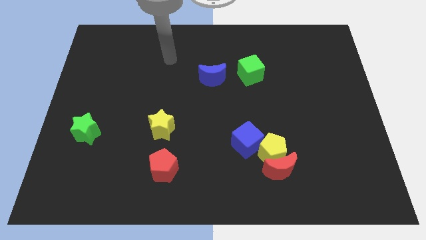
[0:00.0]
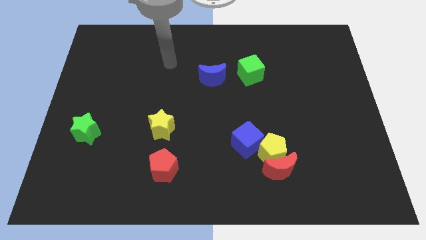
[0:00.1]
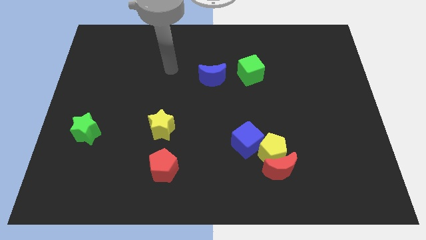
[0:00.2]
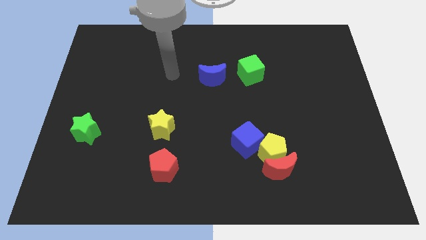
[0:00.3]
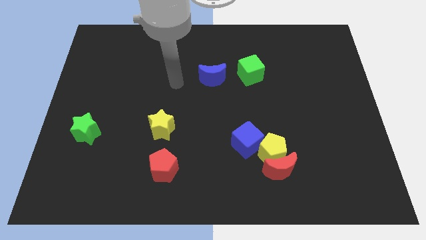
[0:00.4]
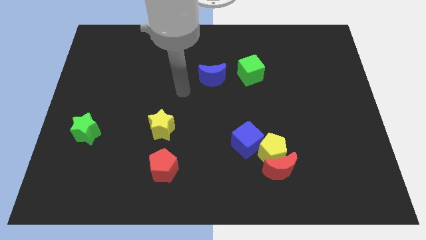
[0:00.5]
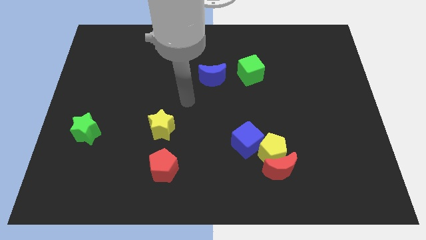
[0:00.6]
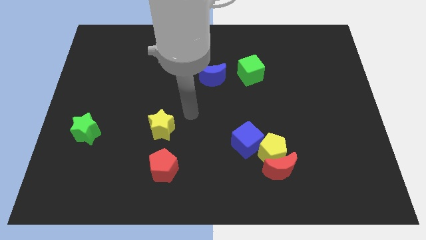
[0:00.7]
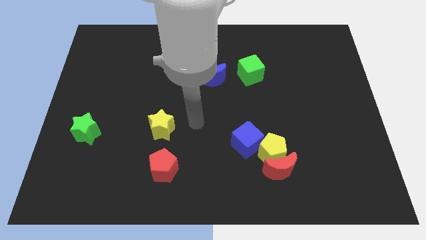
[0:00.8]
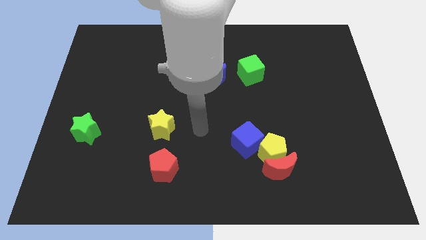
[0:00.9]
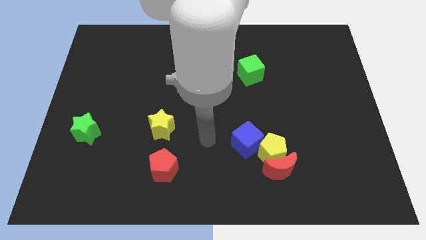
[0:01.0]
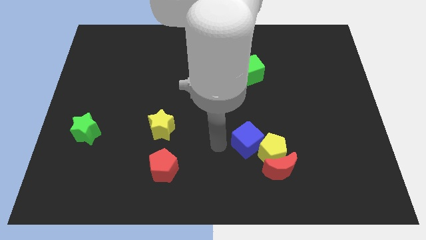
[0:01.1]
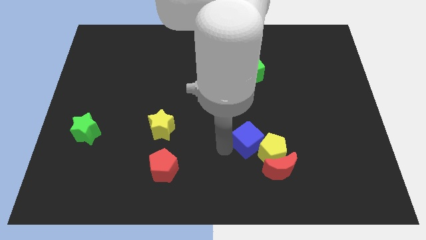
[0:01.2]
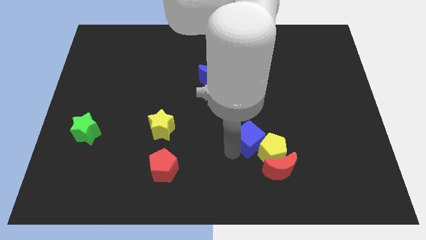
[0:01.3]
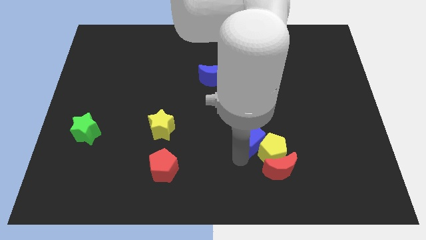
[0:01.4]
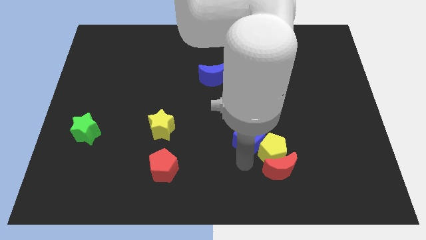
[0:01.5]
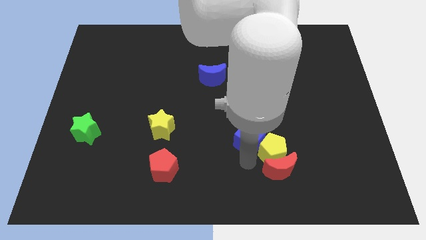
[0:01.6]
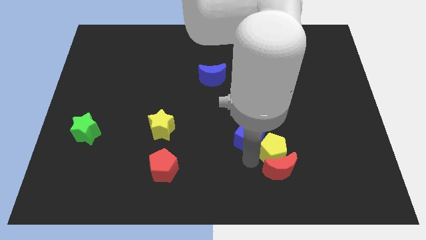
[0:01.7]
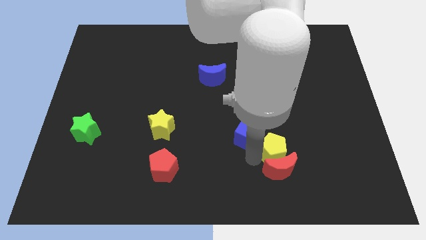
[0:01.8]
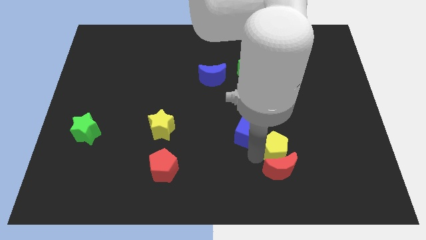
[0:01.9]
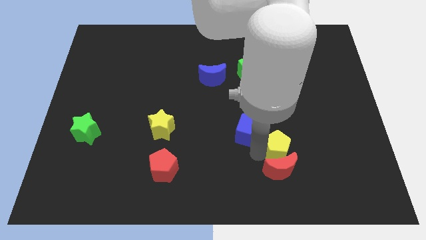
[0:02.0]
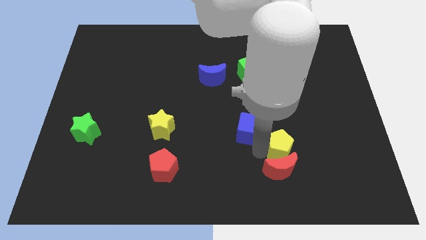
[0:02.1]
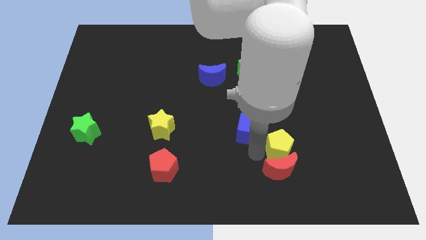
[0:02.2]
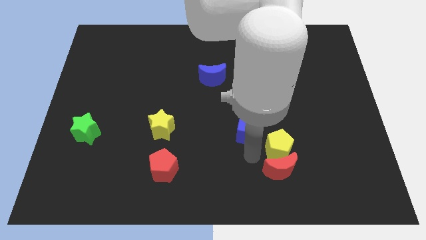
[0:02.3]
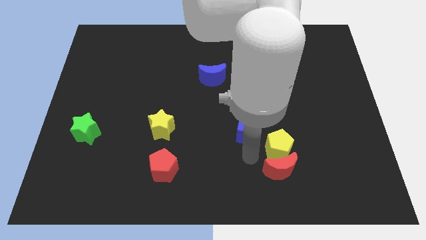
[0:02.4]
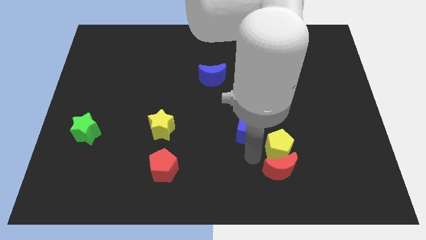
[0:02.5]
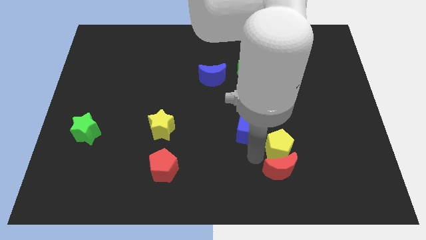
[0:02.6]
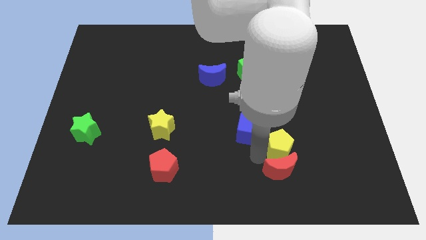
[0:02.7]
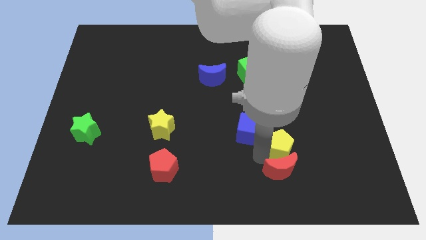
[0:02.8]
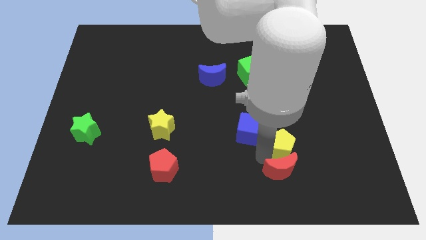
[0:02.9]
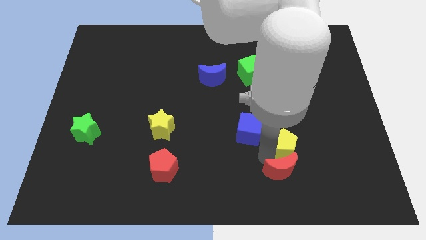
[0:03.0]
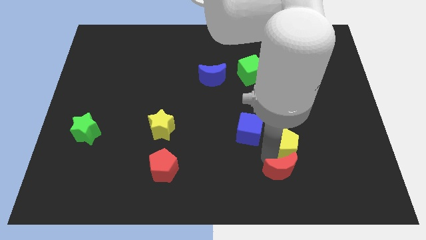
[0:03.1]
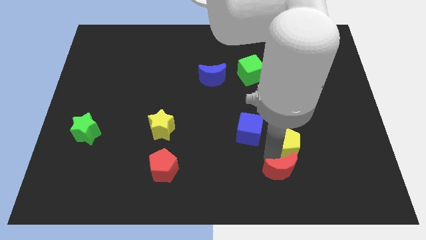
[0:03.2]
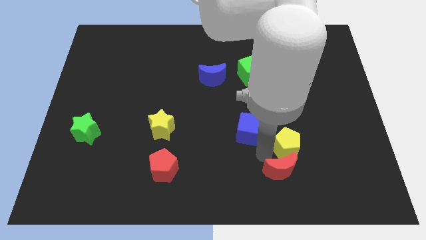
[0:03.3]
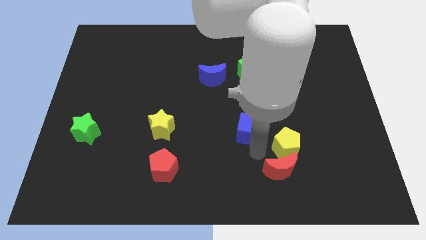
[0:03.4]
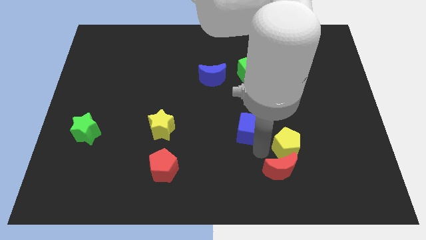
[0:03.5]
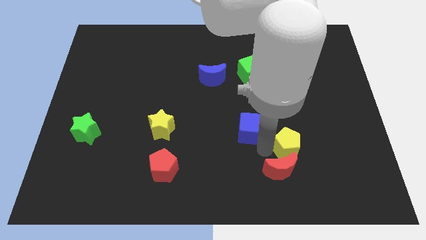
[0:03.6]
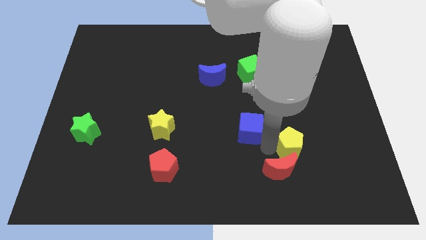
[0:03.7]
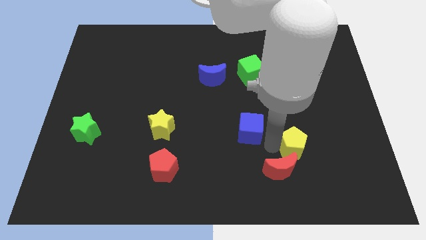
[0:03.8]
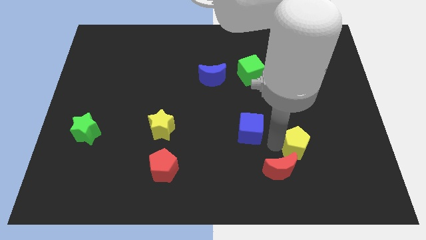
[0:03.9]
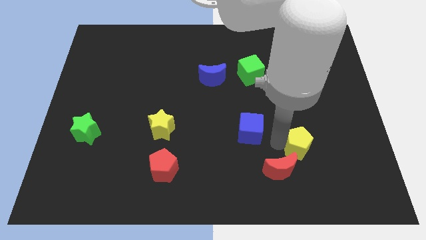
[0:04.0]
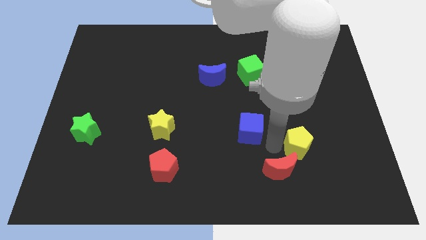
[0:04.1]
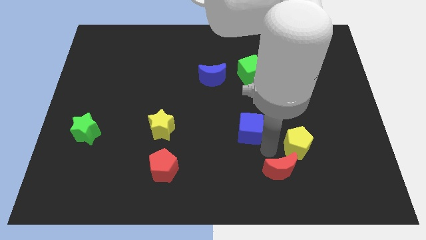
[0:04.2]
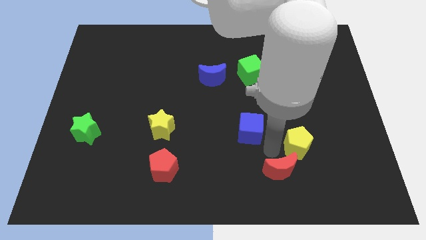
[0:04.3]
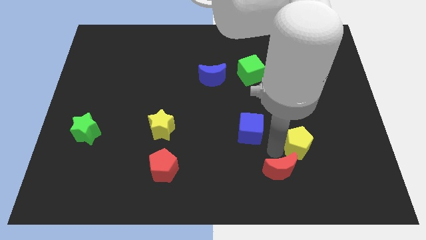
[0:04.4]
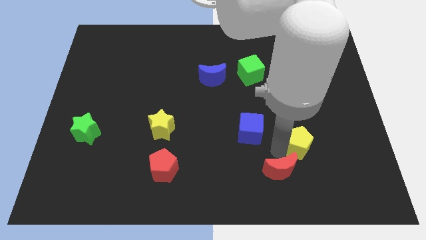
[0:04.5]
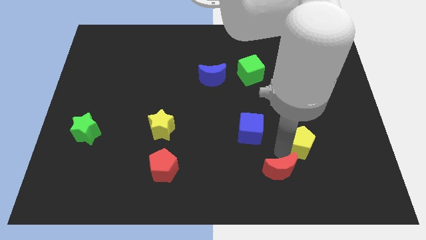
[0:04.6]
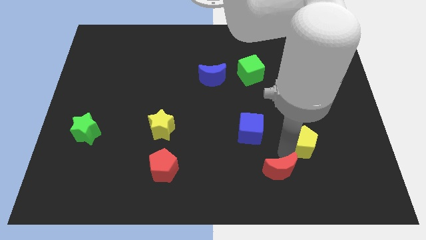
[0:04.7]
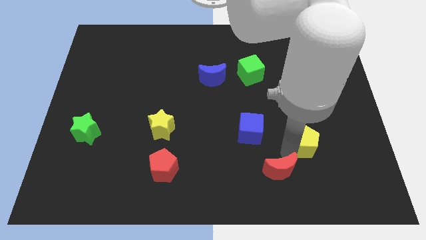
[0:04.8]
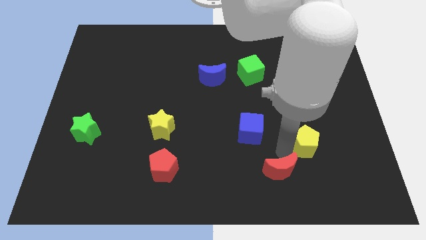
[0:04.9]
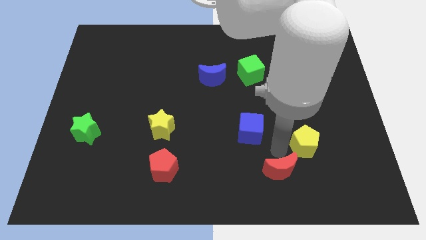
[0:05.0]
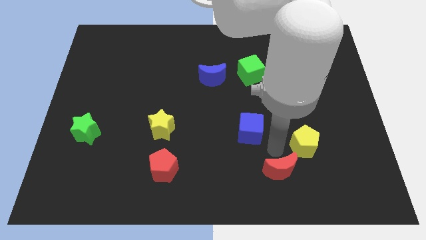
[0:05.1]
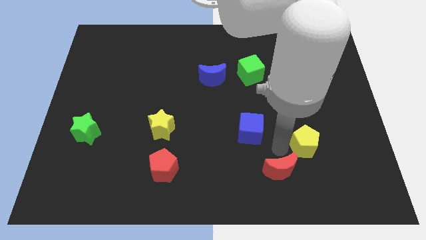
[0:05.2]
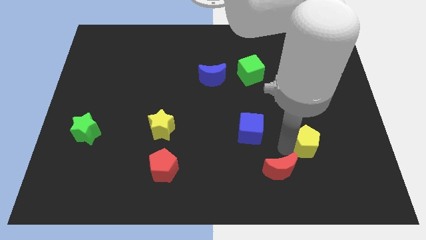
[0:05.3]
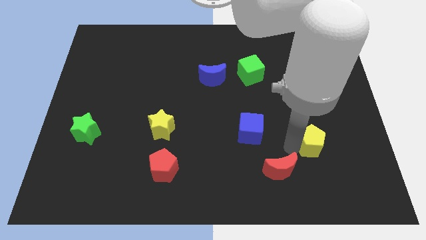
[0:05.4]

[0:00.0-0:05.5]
move the yellow pentagon away from the red moon and blue cube

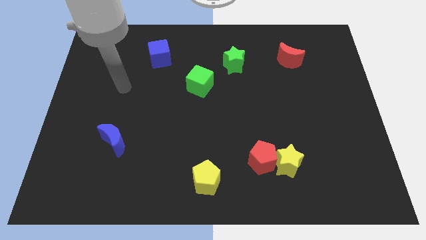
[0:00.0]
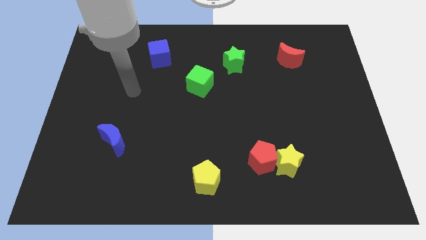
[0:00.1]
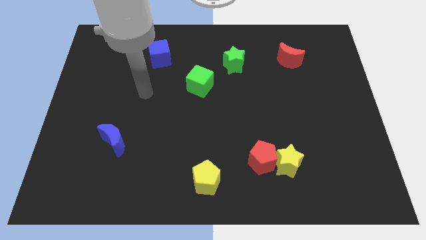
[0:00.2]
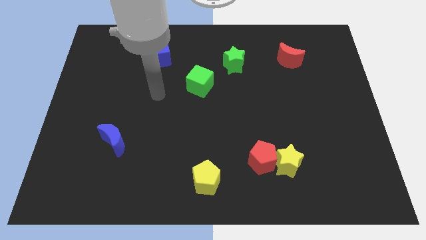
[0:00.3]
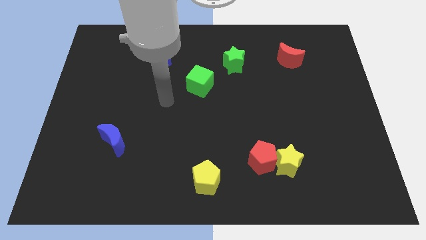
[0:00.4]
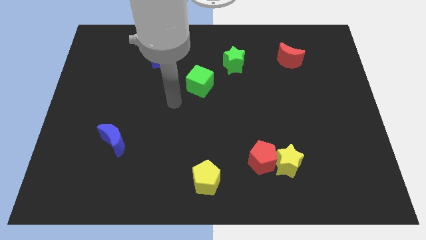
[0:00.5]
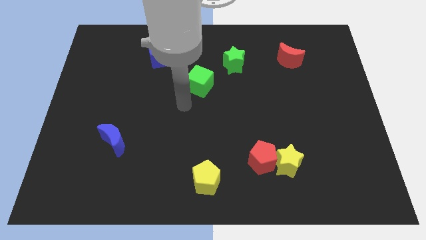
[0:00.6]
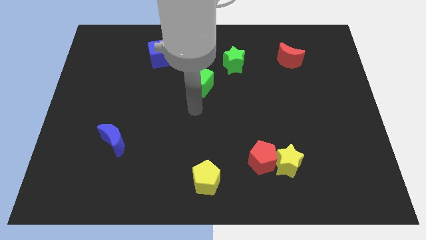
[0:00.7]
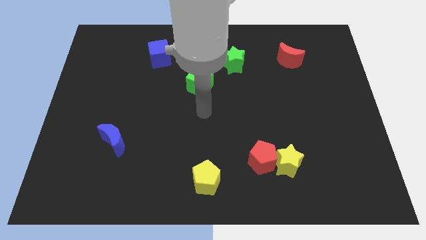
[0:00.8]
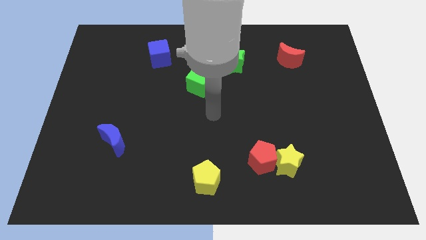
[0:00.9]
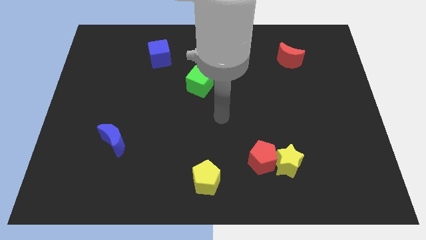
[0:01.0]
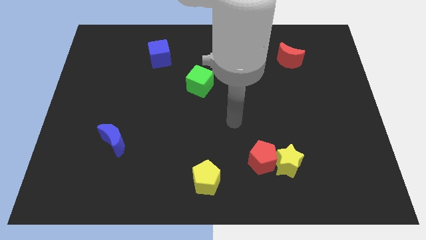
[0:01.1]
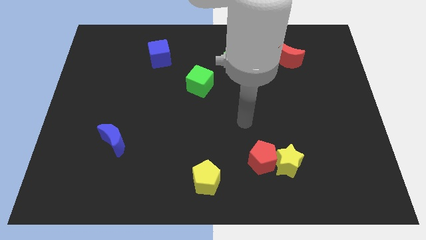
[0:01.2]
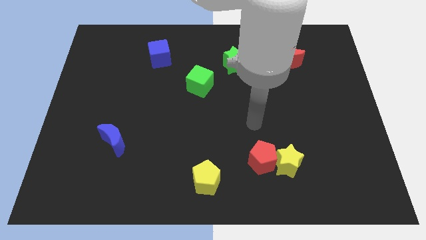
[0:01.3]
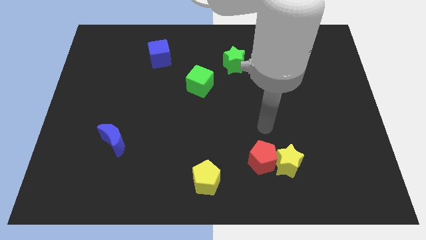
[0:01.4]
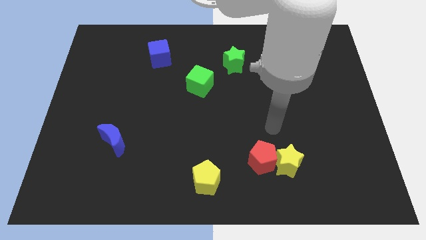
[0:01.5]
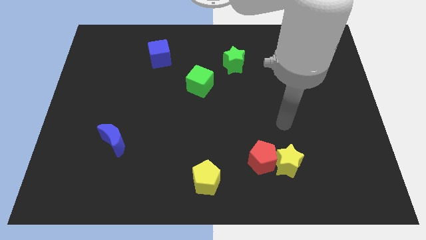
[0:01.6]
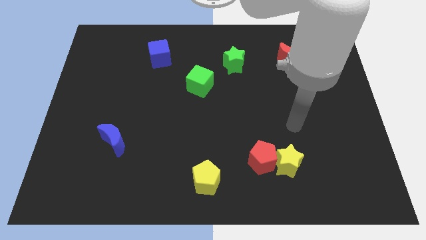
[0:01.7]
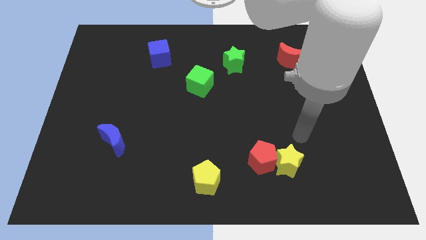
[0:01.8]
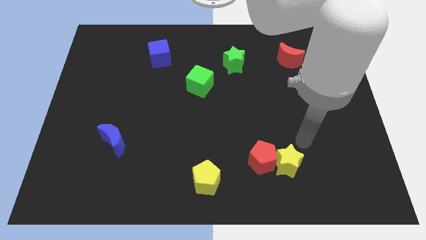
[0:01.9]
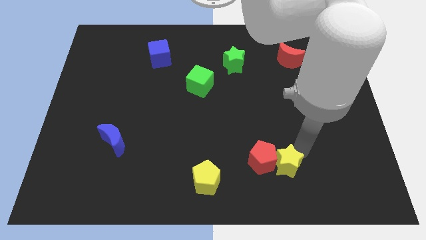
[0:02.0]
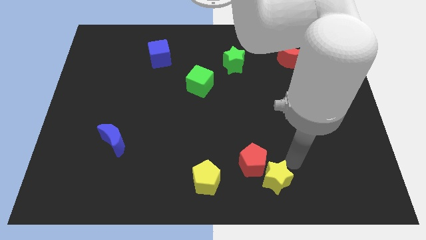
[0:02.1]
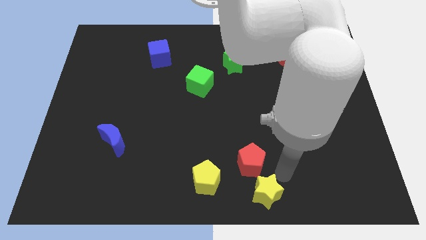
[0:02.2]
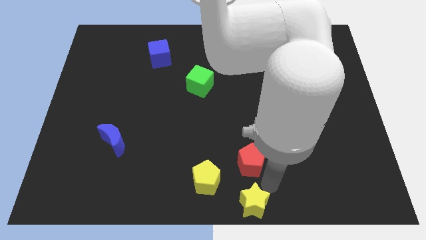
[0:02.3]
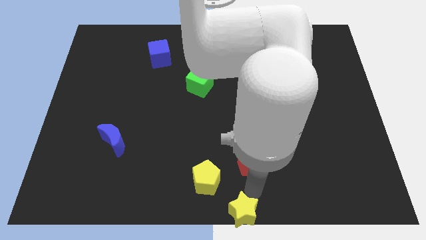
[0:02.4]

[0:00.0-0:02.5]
move the red pentagon away from the yellow star

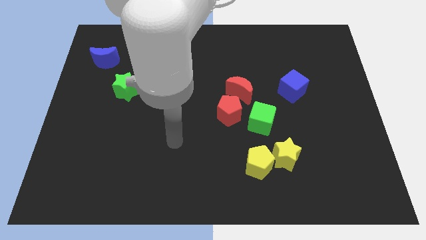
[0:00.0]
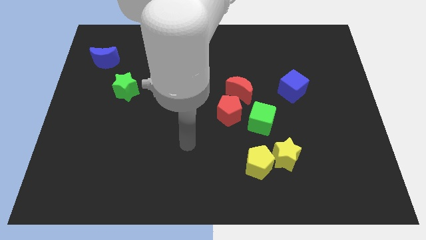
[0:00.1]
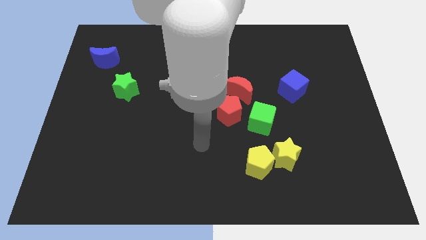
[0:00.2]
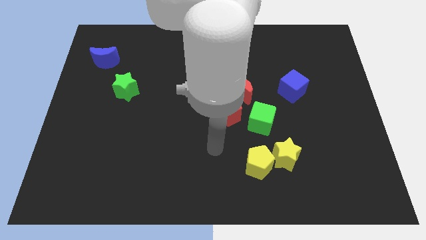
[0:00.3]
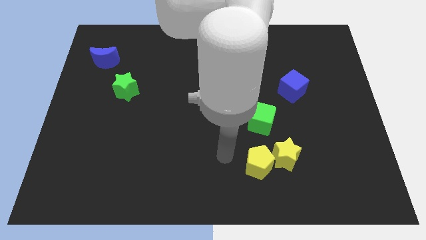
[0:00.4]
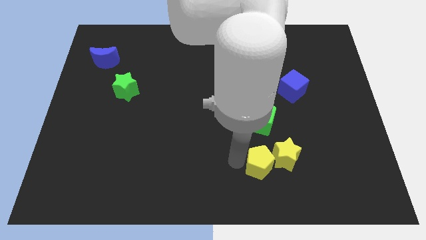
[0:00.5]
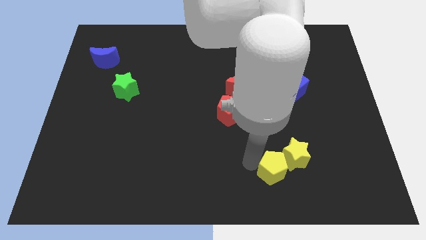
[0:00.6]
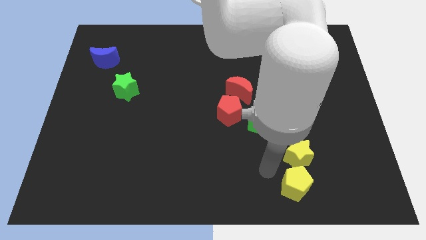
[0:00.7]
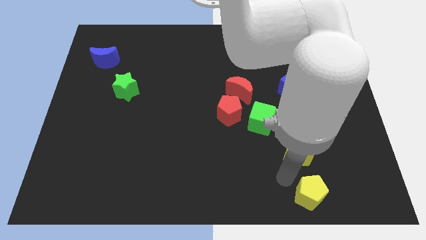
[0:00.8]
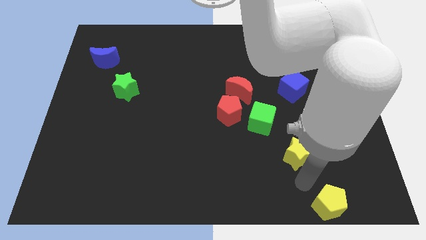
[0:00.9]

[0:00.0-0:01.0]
pull the yellow star apart from the yellow pentagon

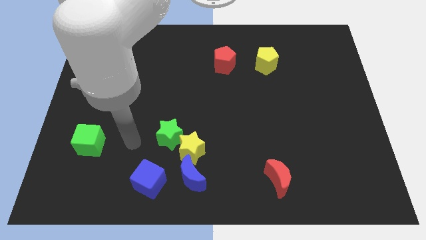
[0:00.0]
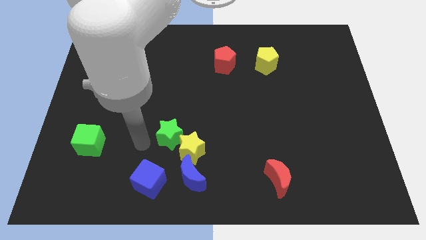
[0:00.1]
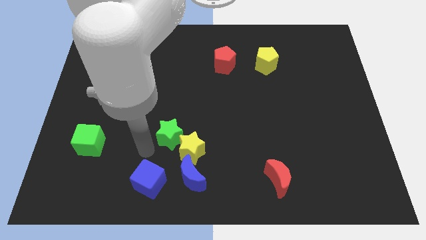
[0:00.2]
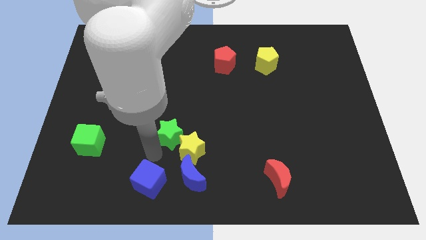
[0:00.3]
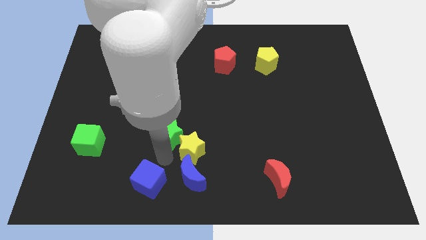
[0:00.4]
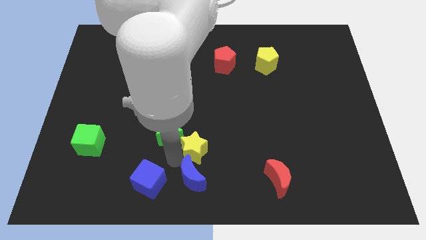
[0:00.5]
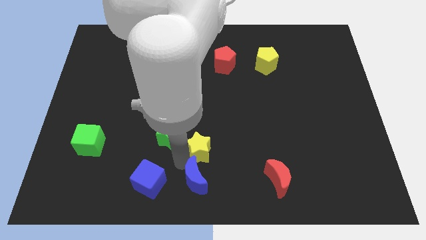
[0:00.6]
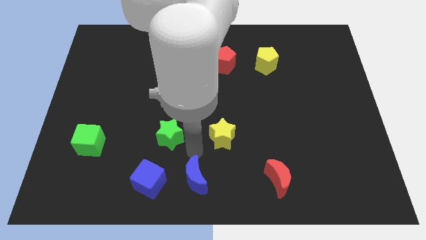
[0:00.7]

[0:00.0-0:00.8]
pull the green star apart from the yellow star
